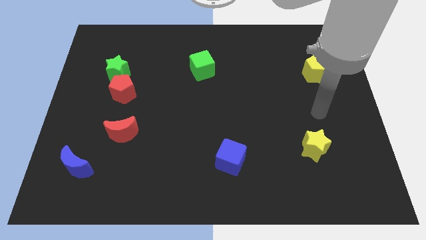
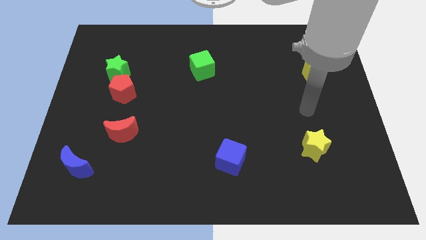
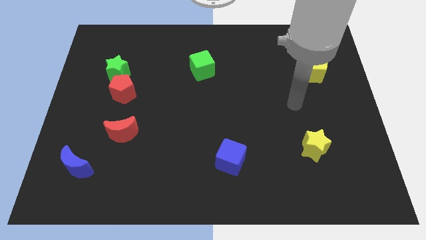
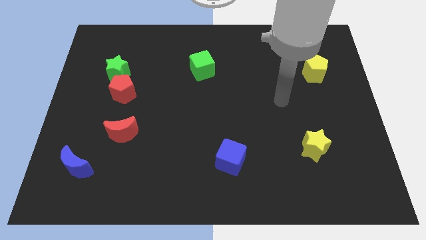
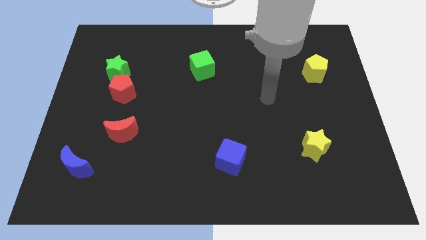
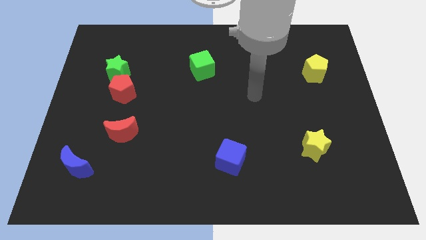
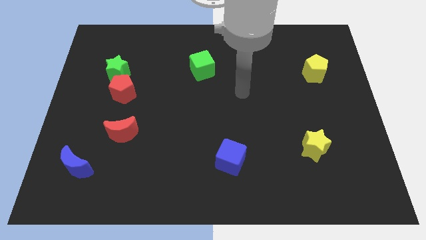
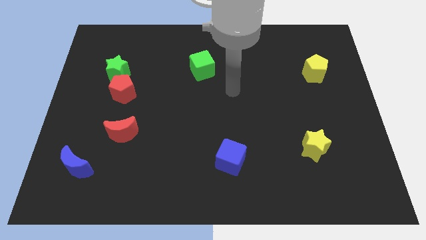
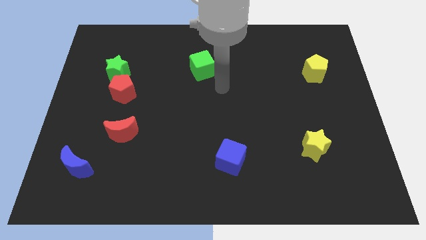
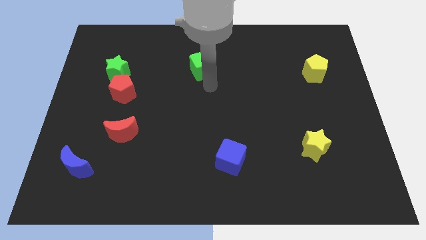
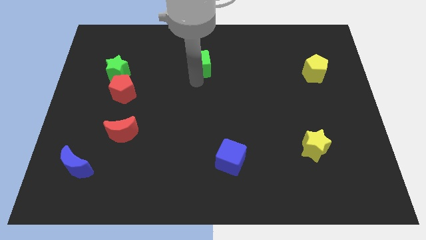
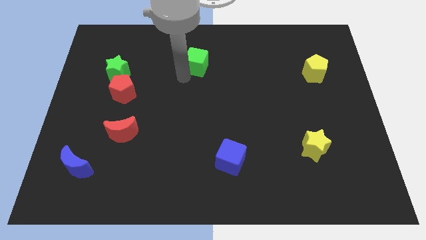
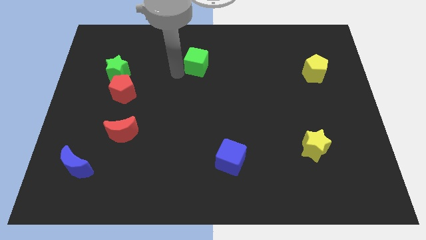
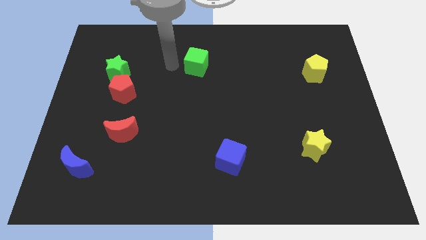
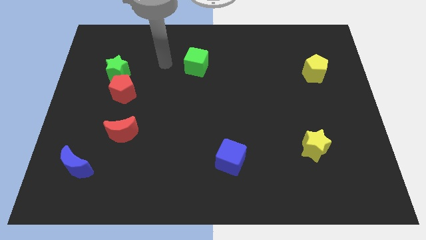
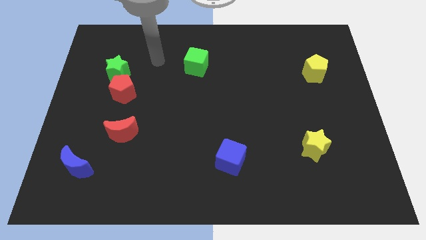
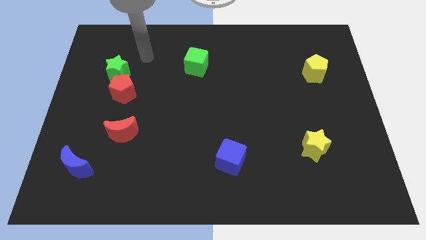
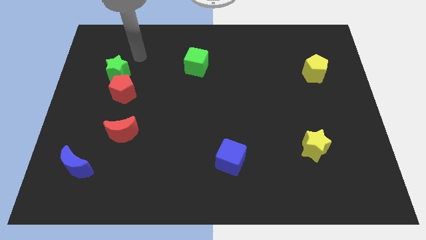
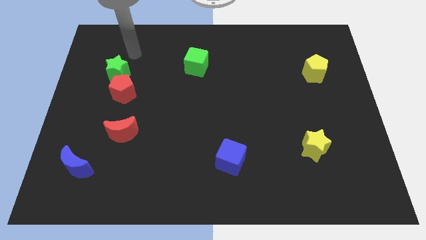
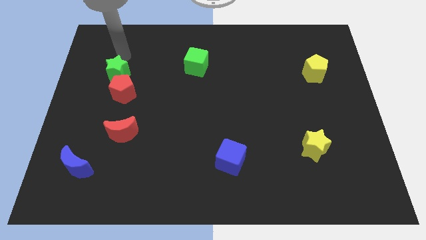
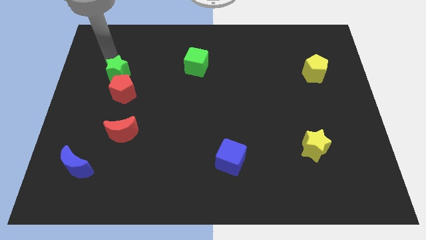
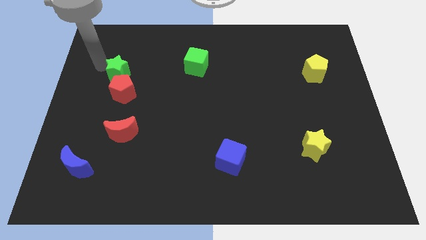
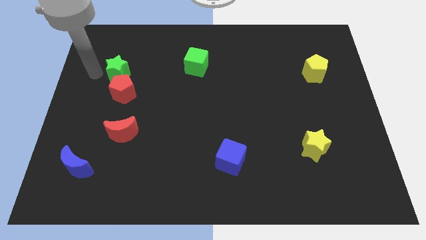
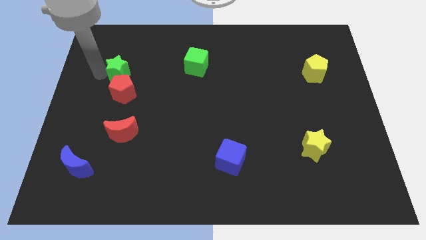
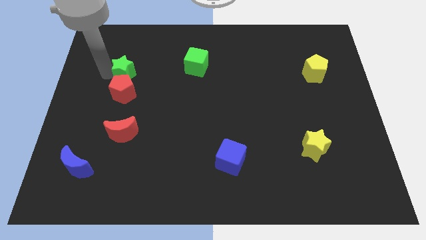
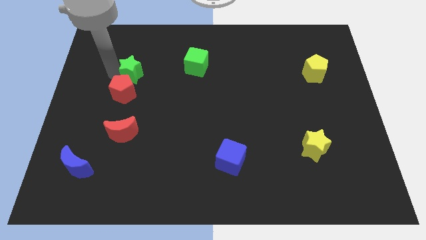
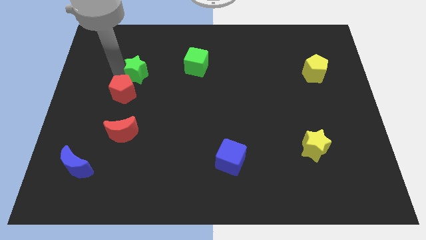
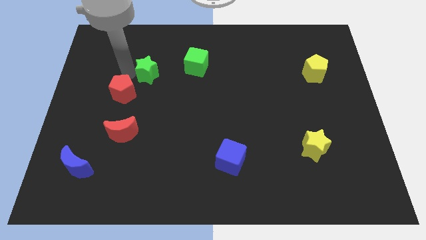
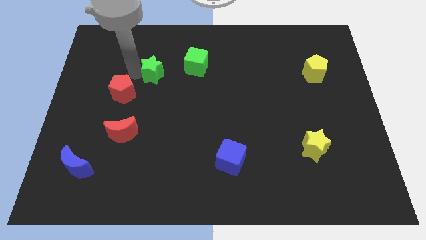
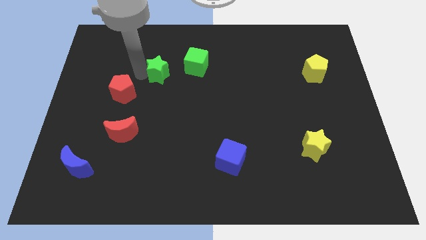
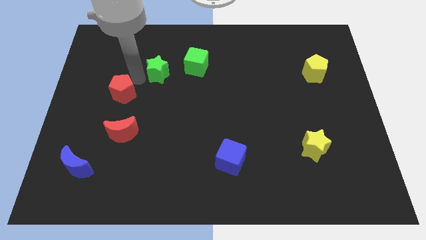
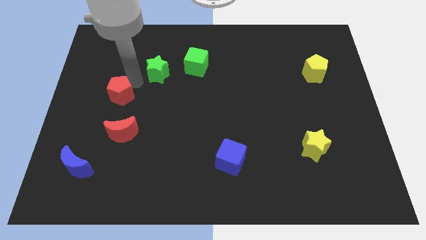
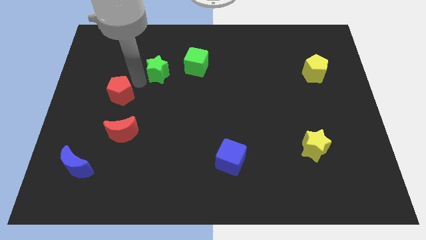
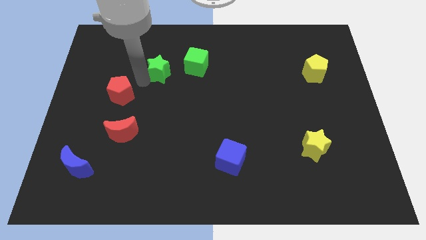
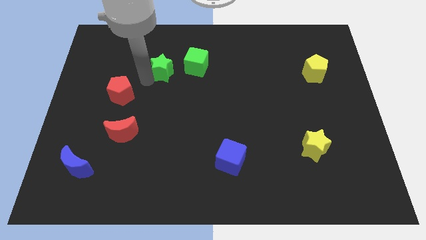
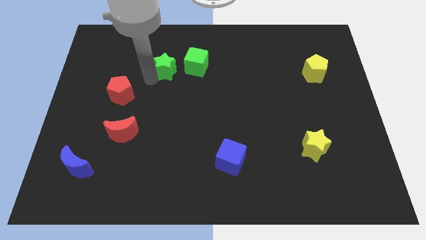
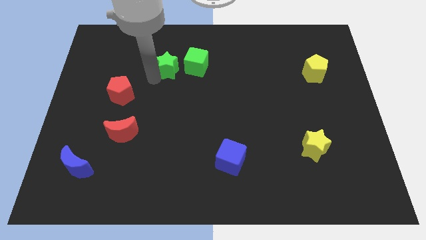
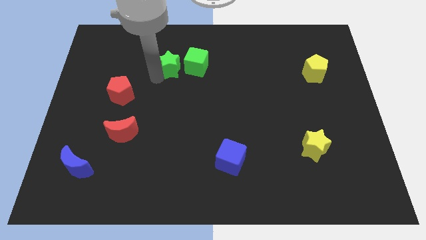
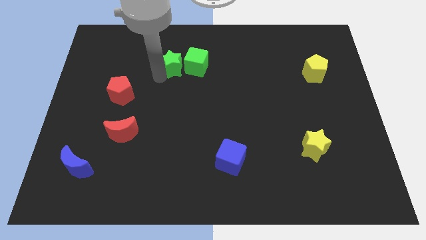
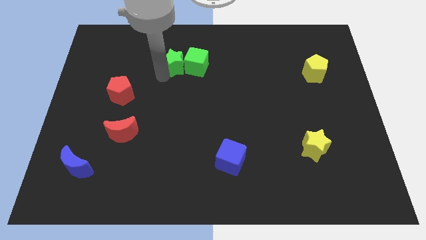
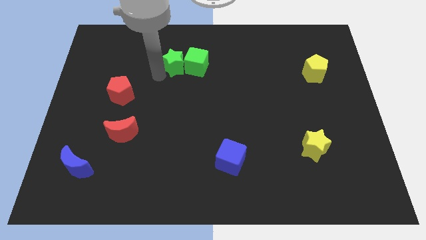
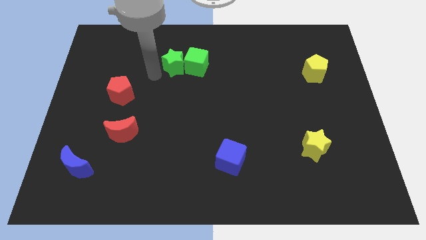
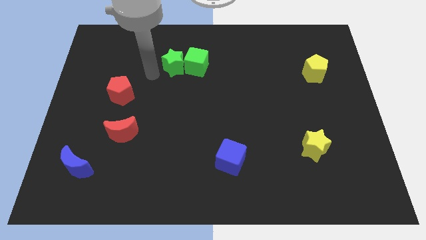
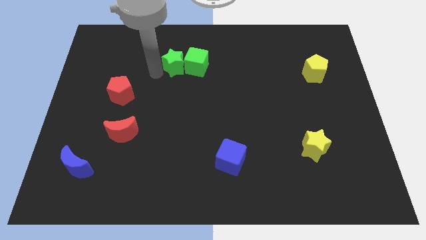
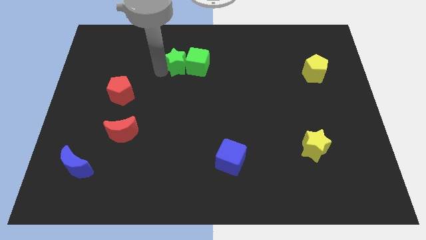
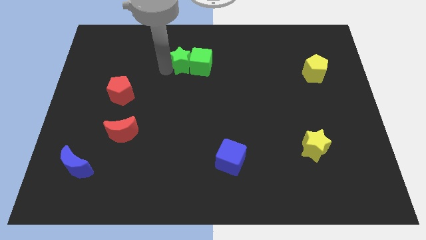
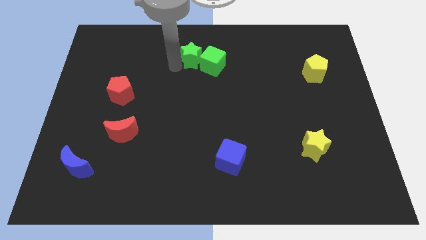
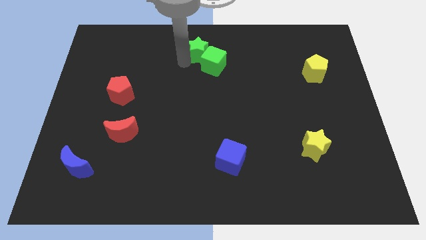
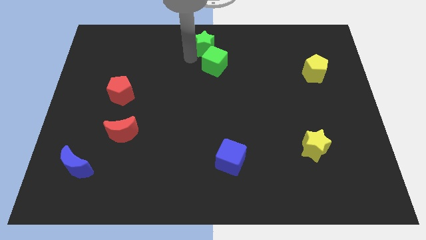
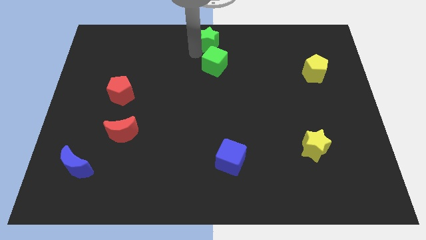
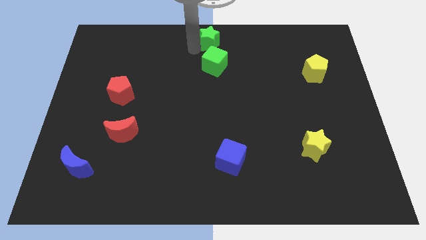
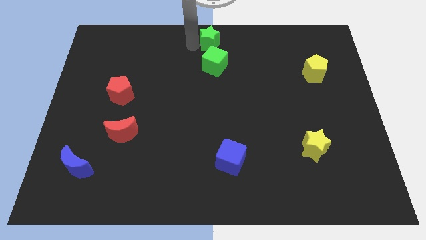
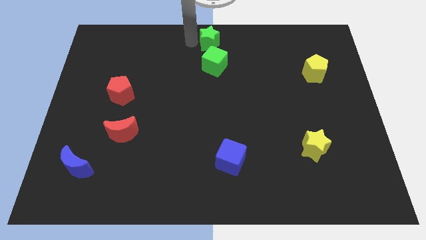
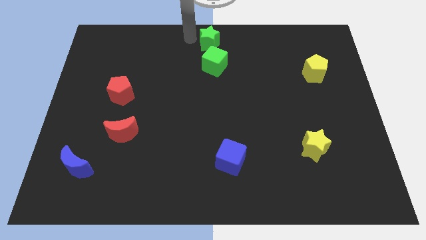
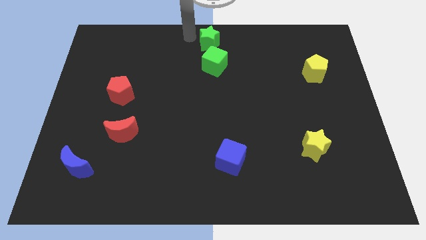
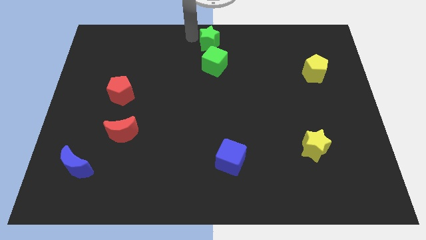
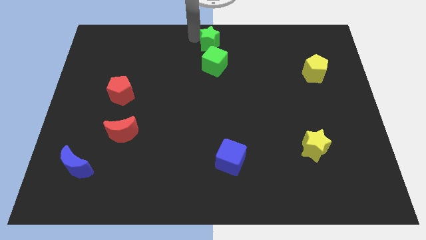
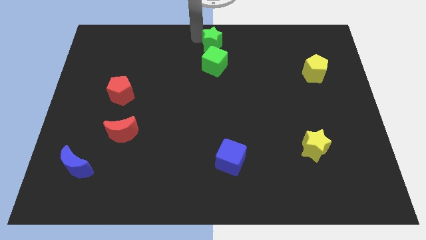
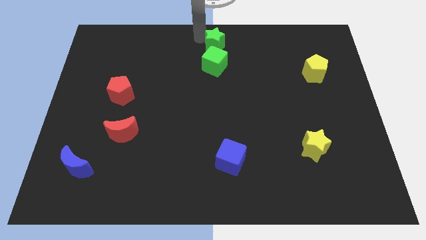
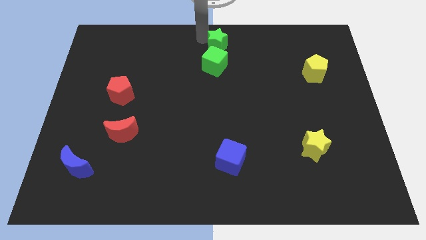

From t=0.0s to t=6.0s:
move the green star to the top right of the green cube

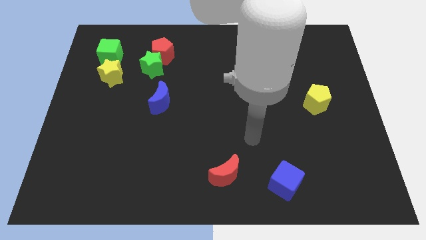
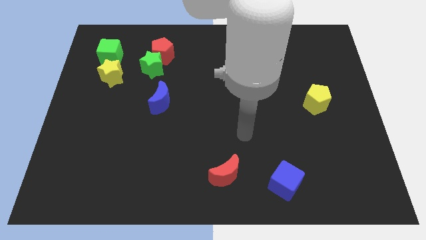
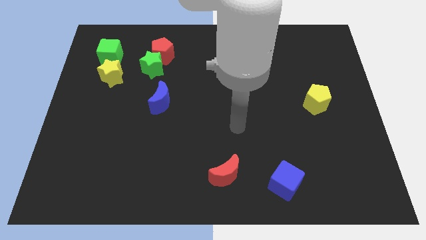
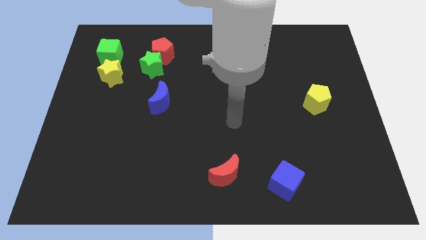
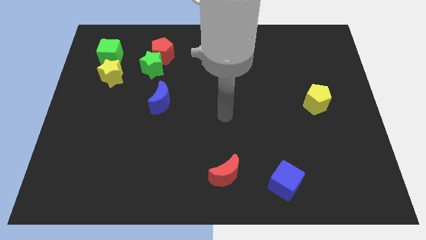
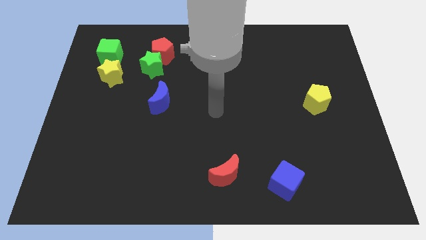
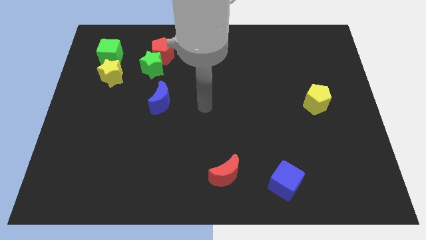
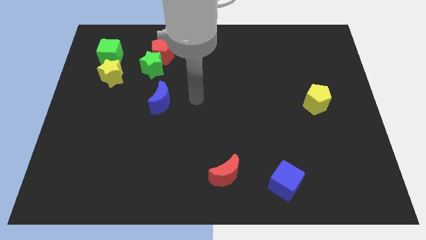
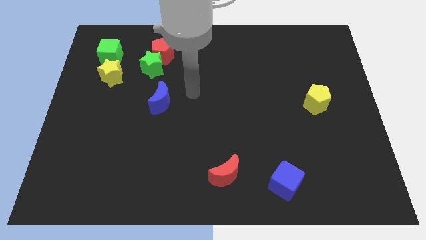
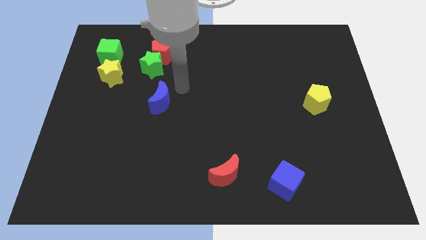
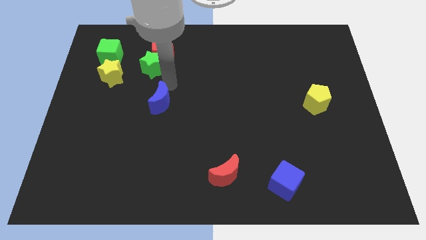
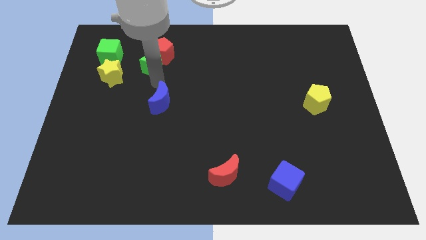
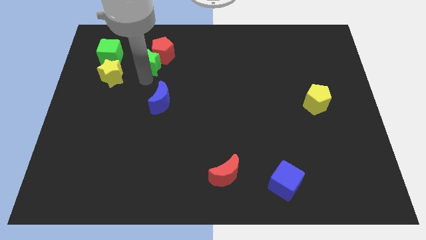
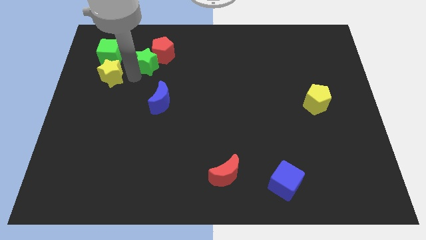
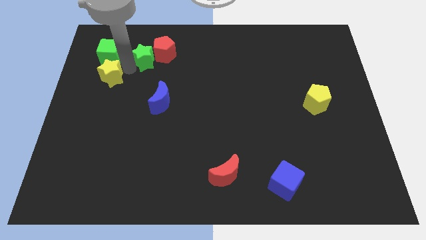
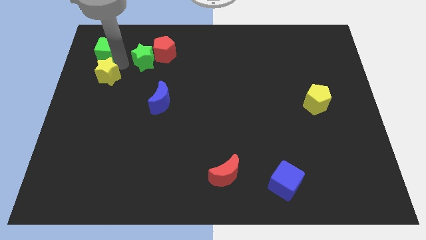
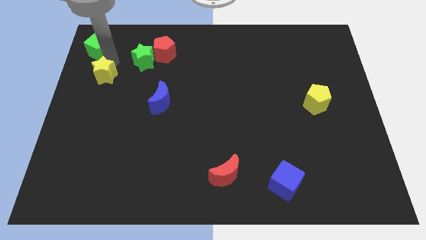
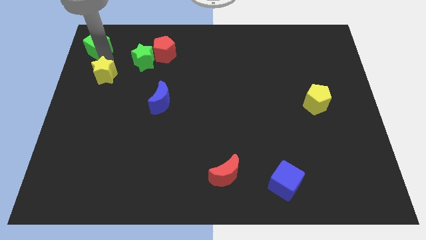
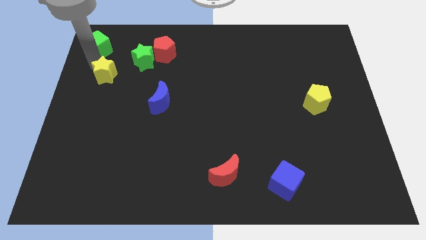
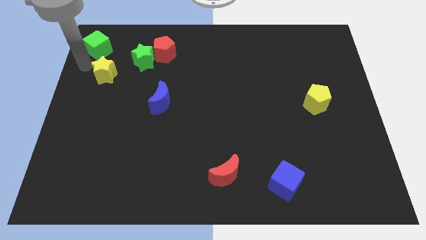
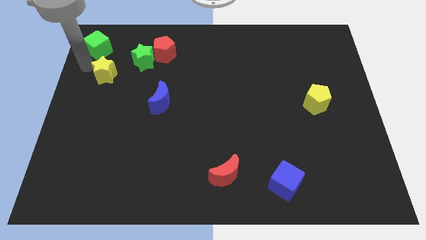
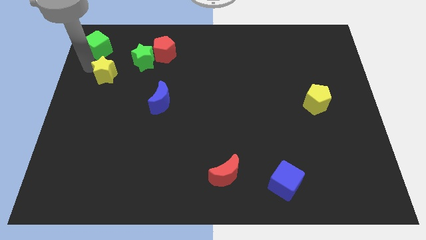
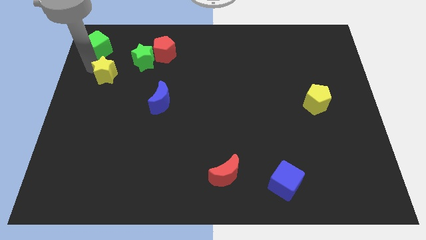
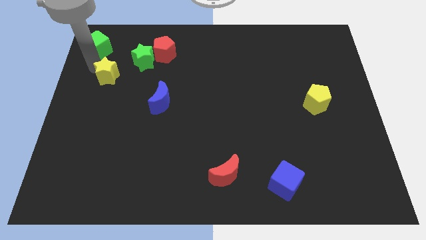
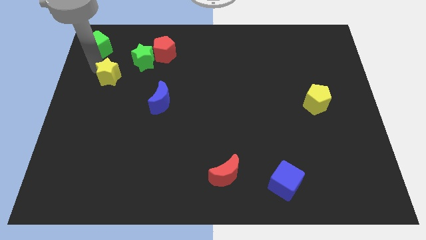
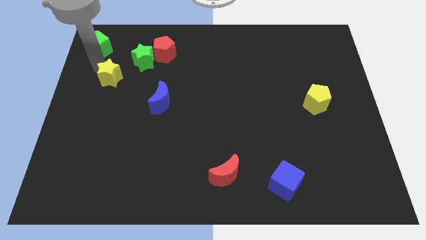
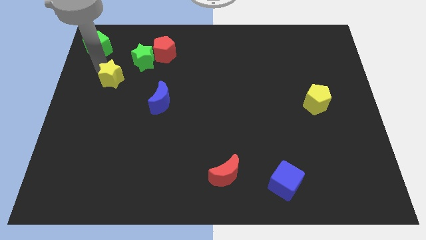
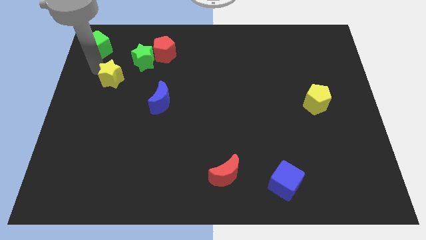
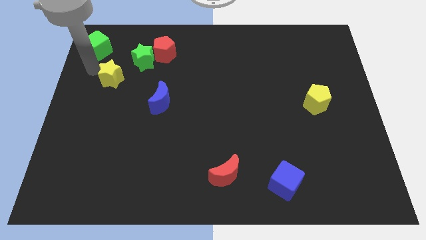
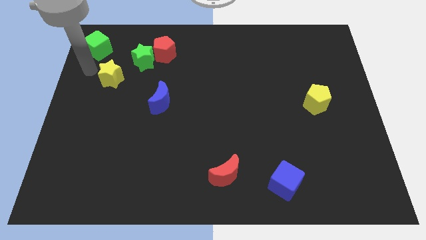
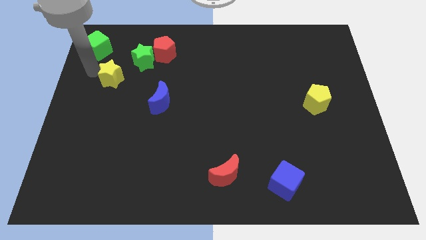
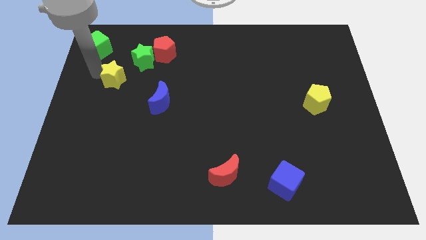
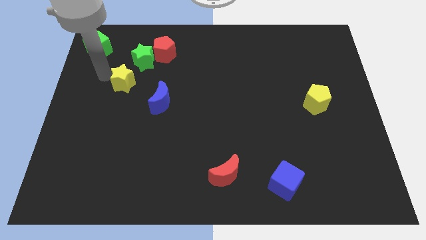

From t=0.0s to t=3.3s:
push the yellow star to the top left side of the blue moon
